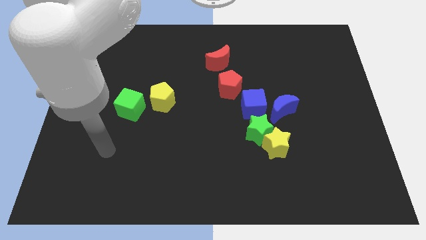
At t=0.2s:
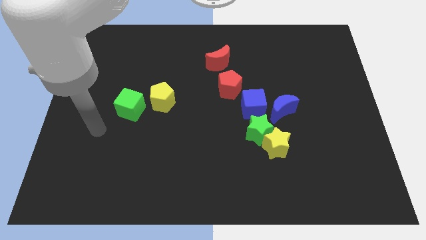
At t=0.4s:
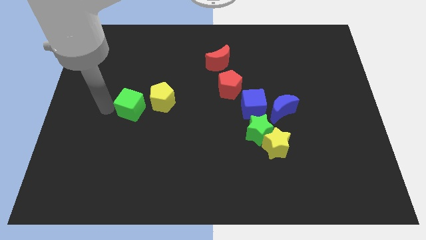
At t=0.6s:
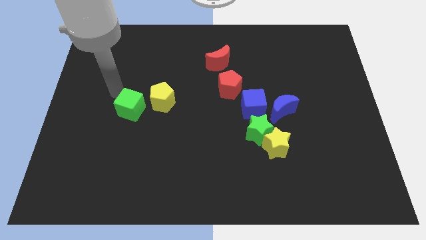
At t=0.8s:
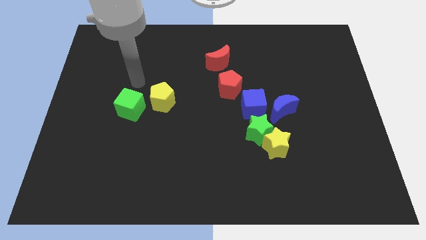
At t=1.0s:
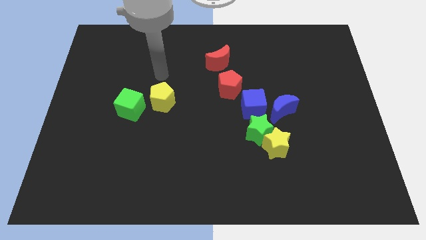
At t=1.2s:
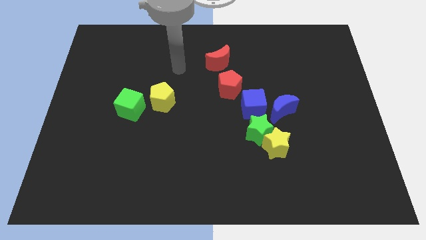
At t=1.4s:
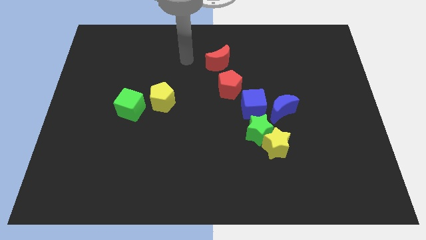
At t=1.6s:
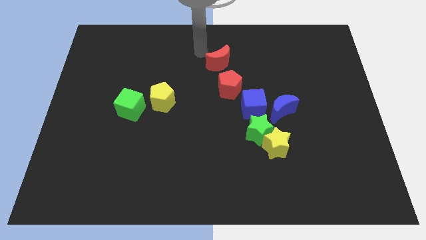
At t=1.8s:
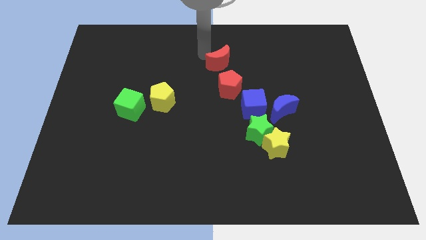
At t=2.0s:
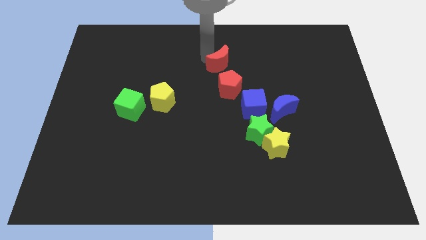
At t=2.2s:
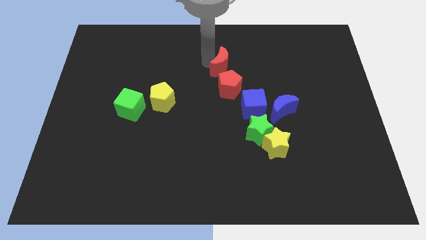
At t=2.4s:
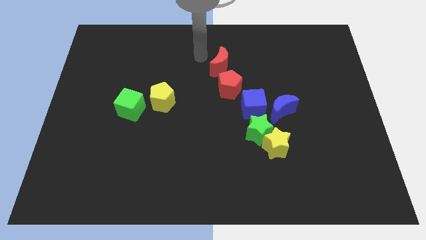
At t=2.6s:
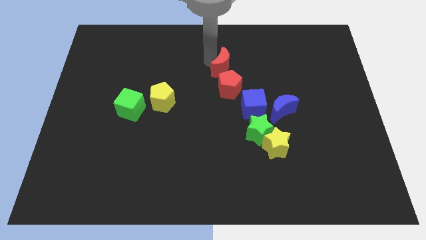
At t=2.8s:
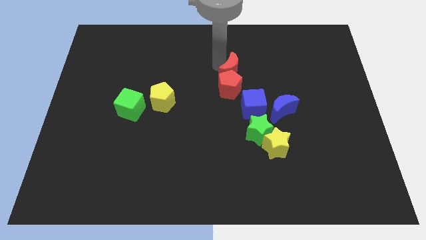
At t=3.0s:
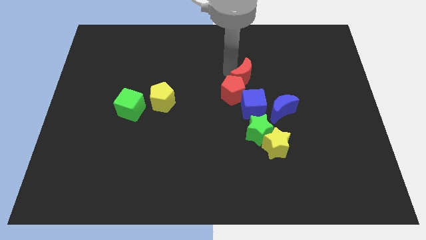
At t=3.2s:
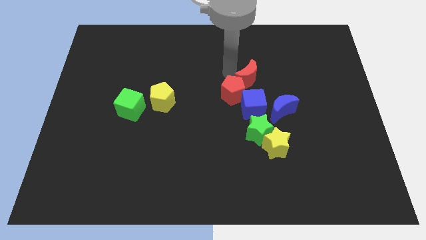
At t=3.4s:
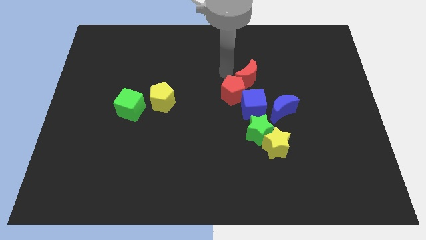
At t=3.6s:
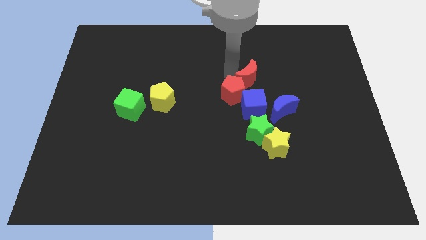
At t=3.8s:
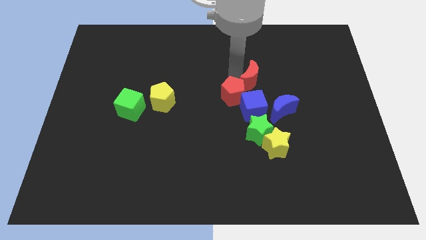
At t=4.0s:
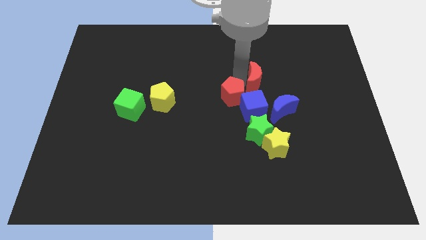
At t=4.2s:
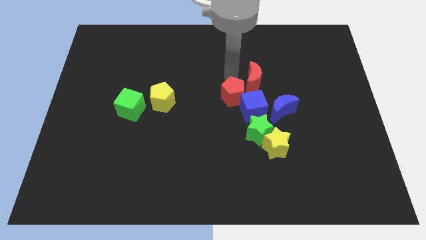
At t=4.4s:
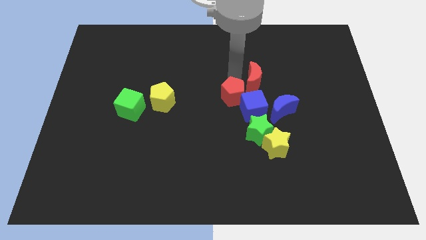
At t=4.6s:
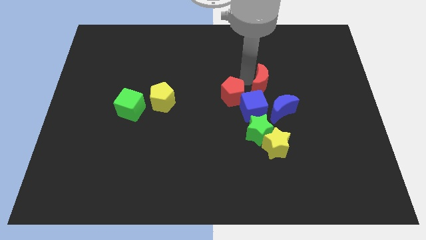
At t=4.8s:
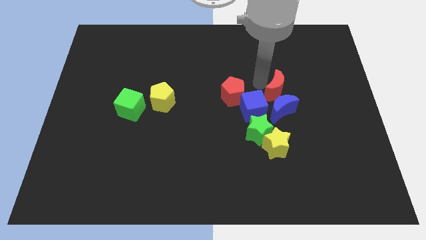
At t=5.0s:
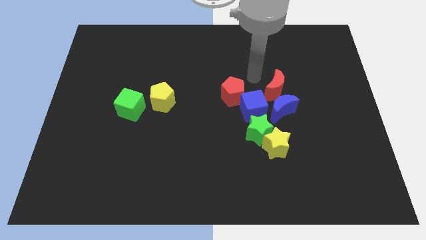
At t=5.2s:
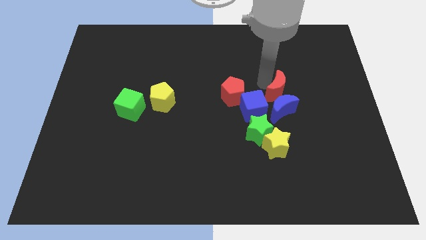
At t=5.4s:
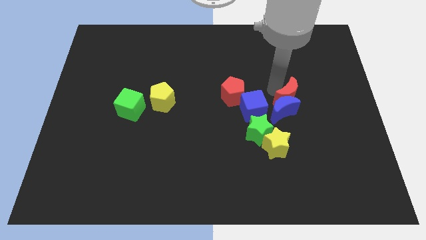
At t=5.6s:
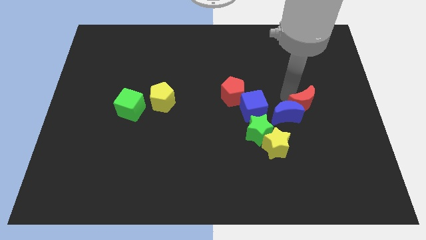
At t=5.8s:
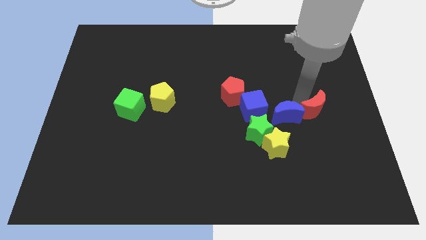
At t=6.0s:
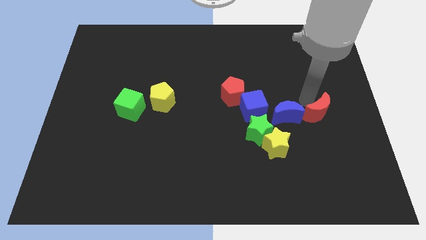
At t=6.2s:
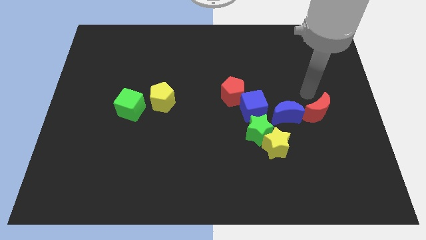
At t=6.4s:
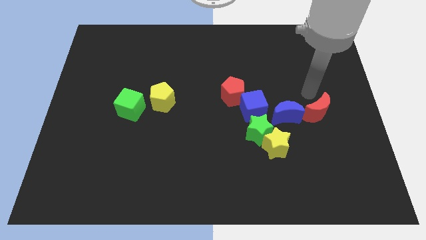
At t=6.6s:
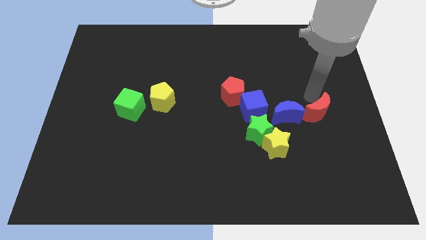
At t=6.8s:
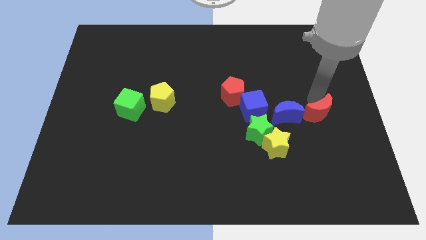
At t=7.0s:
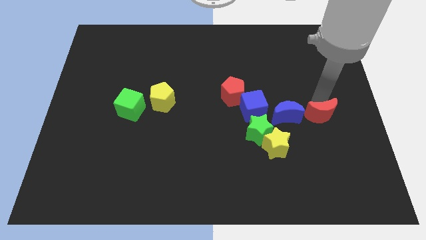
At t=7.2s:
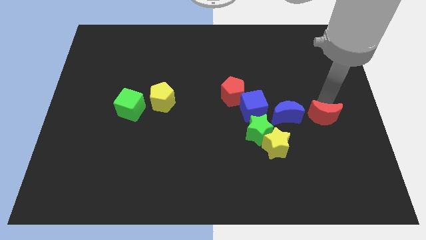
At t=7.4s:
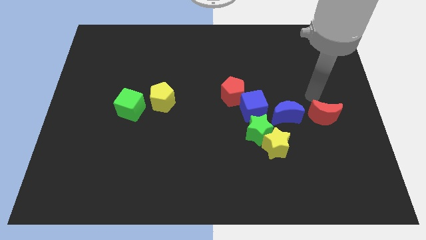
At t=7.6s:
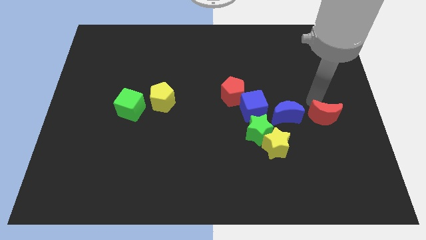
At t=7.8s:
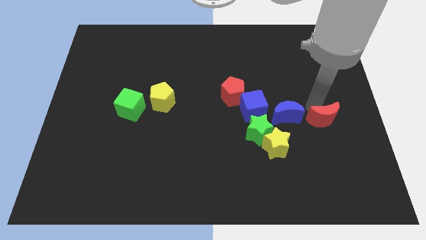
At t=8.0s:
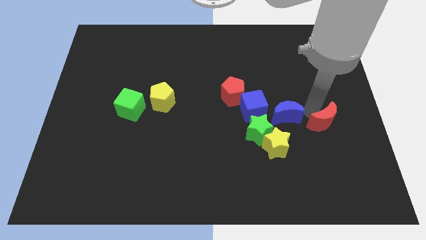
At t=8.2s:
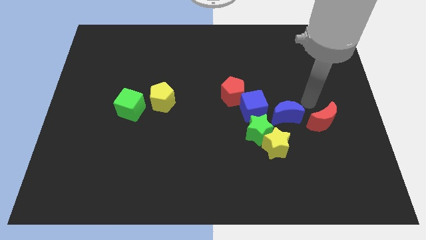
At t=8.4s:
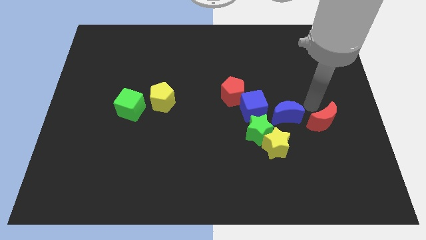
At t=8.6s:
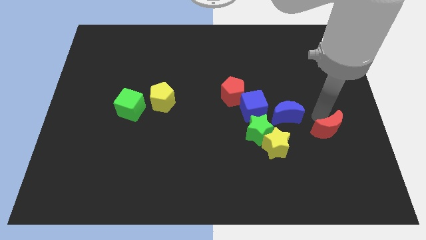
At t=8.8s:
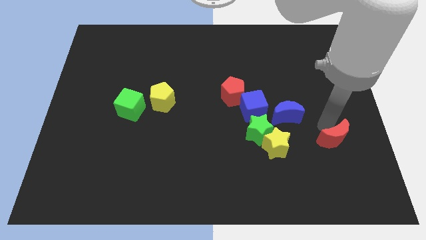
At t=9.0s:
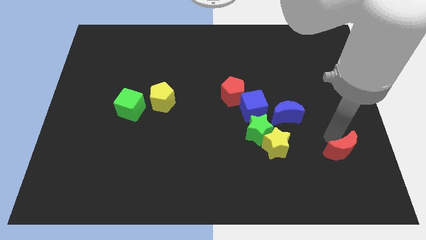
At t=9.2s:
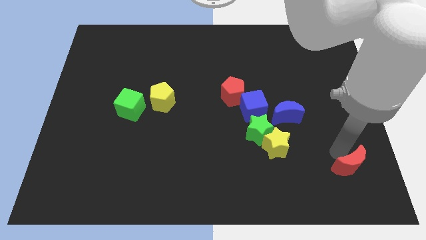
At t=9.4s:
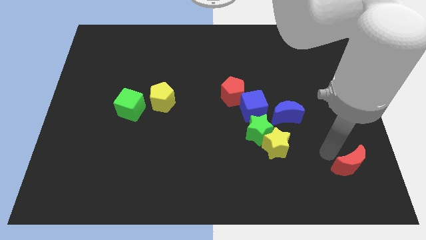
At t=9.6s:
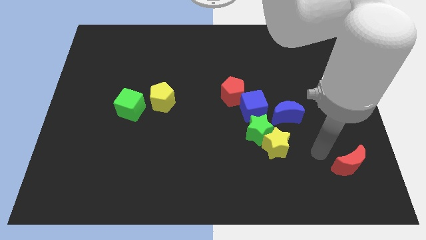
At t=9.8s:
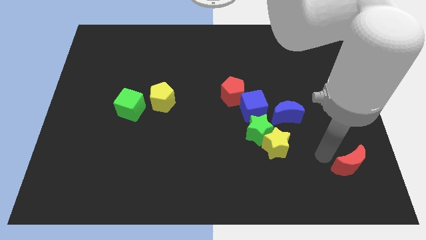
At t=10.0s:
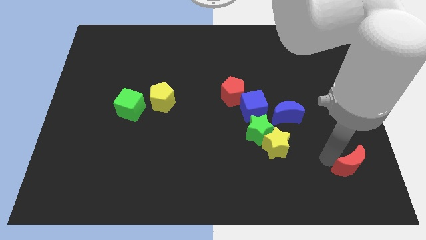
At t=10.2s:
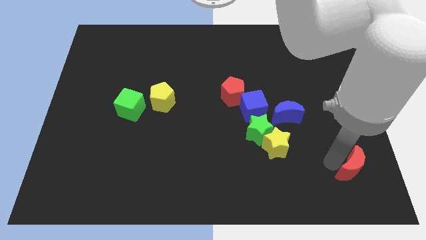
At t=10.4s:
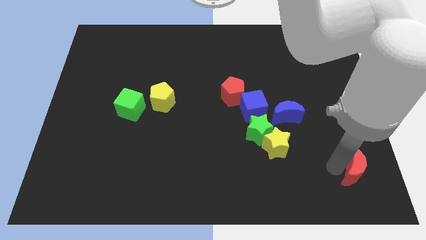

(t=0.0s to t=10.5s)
put the red moon to the bottom right of the board
